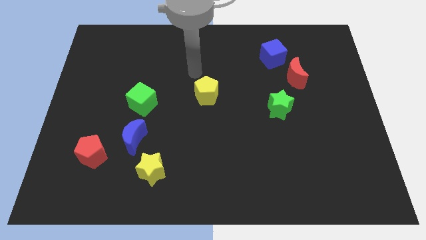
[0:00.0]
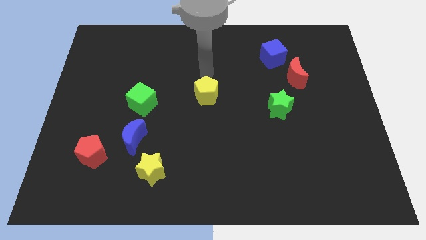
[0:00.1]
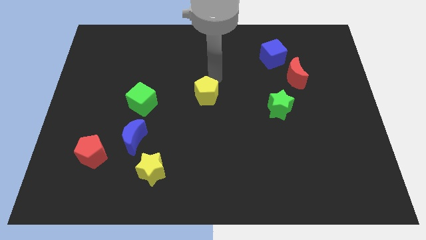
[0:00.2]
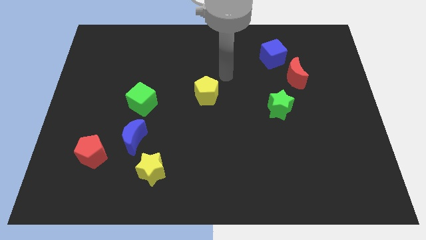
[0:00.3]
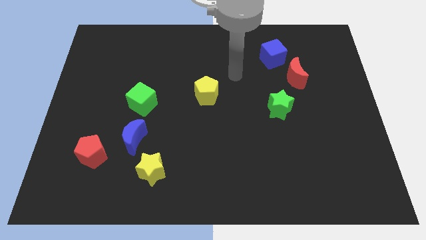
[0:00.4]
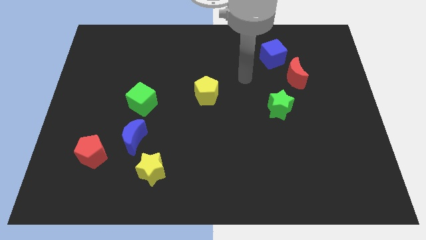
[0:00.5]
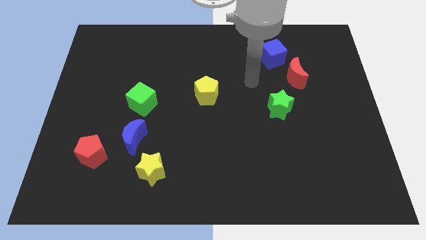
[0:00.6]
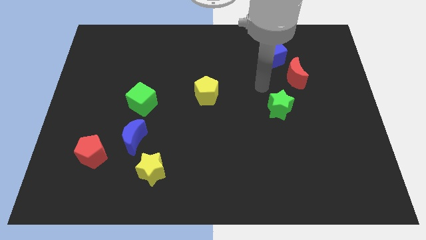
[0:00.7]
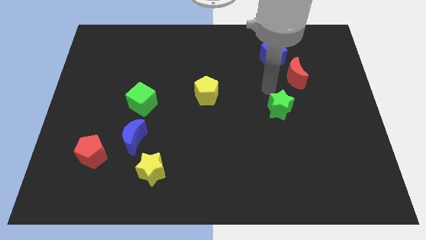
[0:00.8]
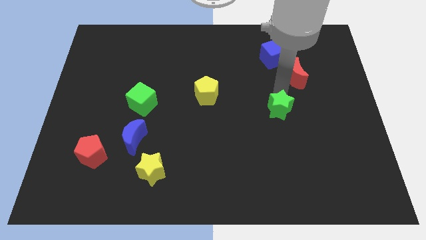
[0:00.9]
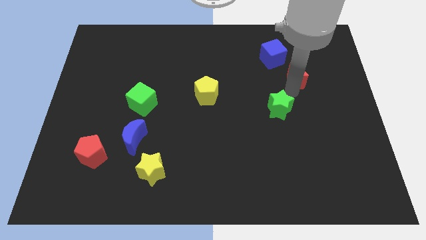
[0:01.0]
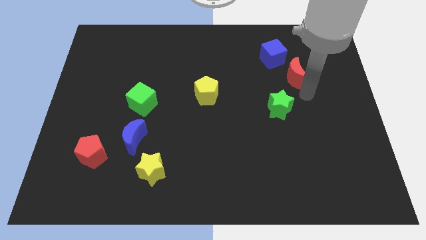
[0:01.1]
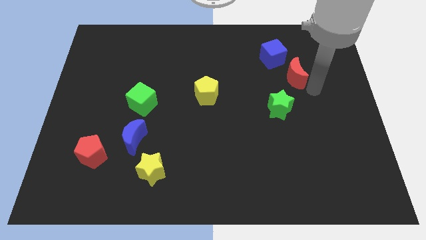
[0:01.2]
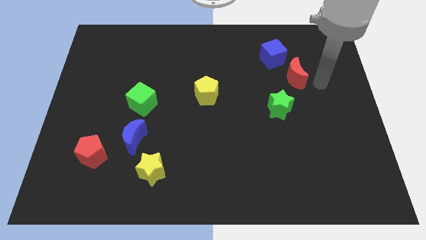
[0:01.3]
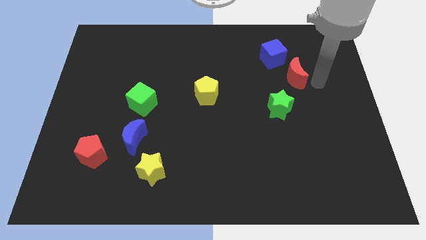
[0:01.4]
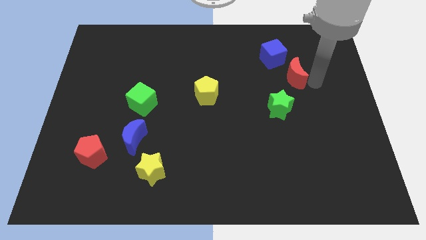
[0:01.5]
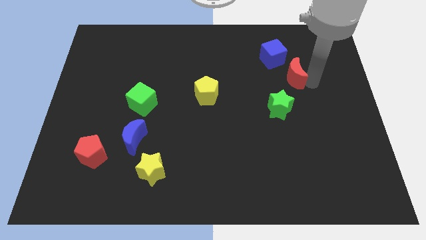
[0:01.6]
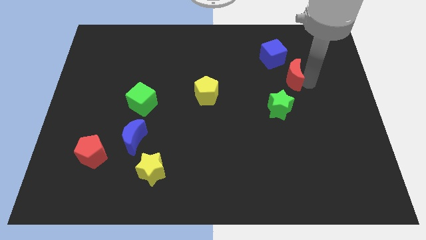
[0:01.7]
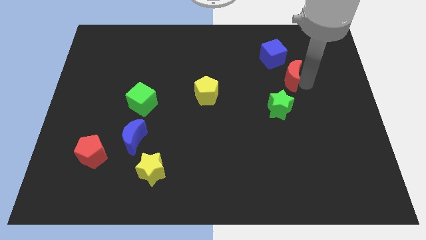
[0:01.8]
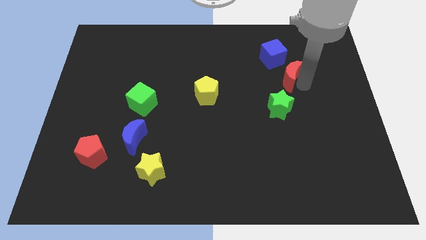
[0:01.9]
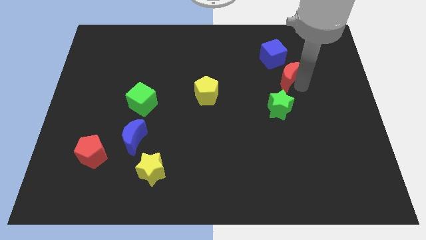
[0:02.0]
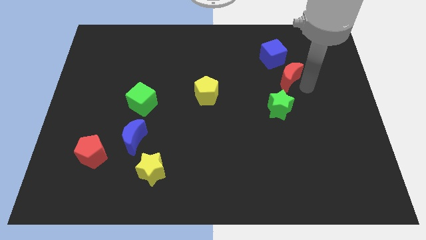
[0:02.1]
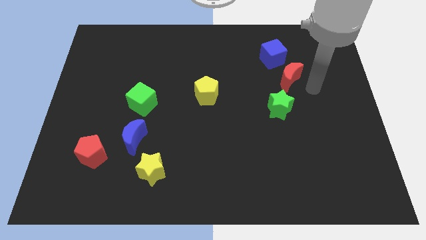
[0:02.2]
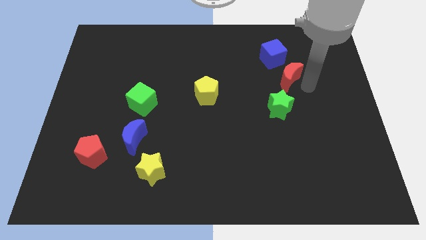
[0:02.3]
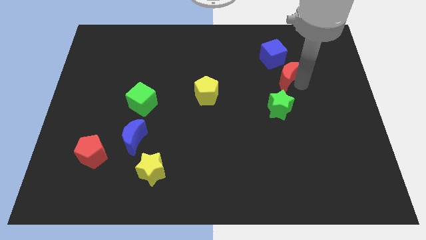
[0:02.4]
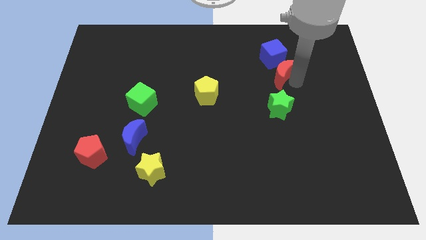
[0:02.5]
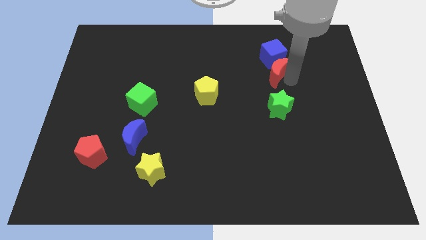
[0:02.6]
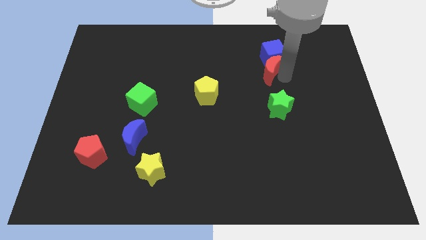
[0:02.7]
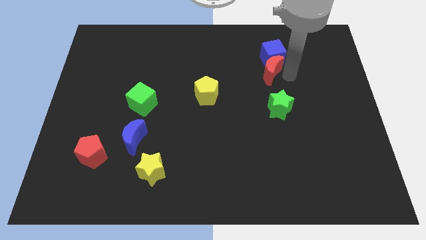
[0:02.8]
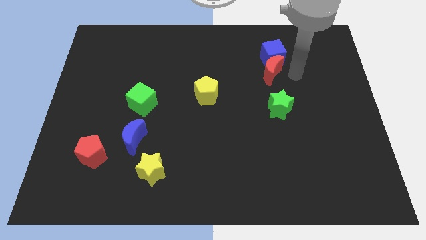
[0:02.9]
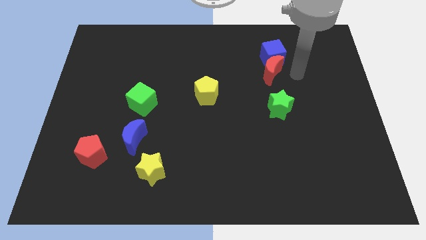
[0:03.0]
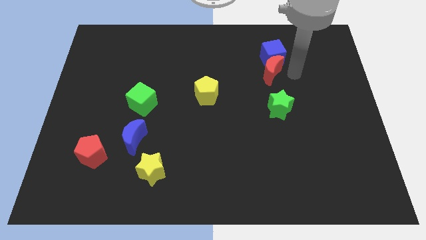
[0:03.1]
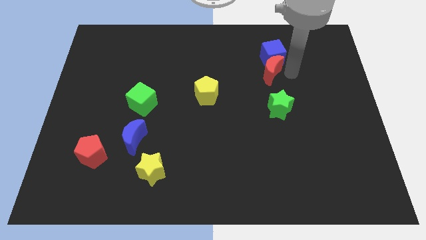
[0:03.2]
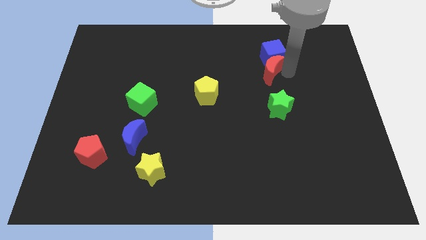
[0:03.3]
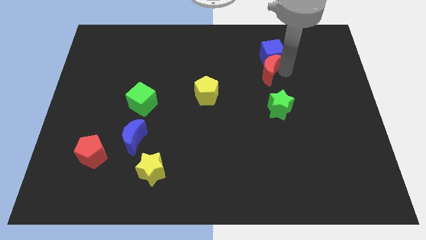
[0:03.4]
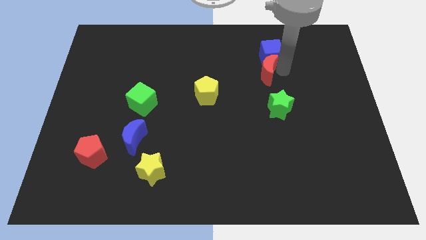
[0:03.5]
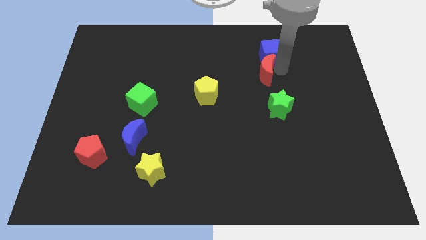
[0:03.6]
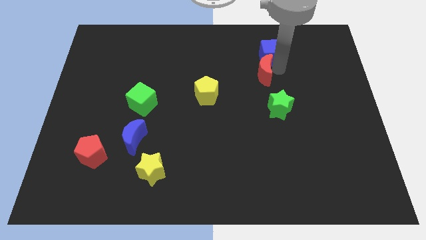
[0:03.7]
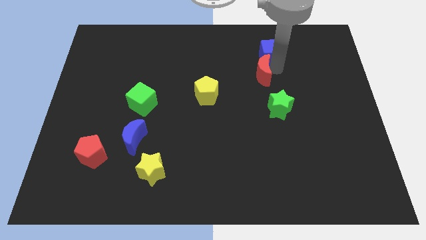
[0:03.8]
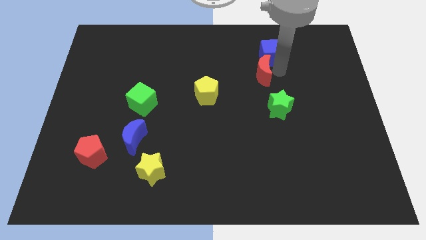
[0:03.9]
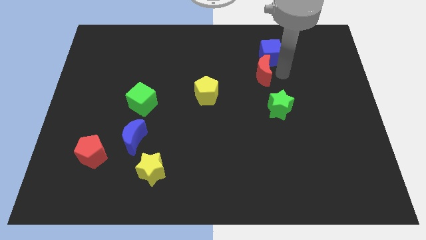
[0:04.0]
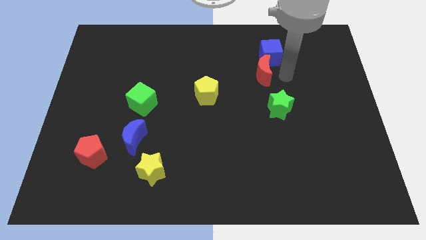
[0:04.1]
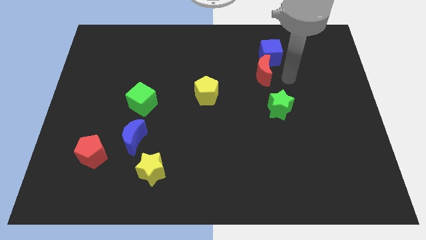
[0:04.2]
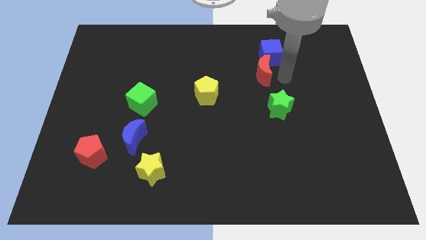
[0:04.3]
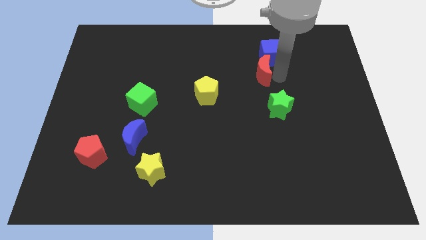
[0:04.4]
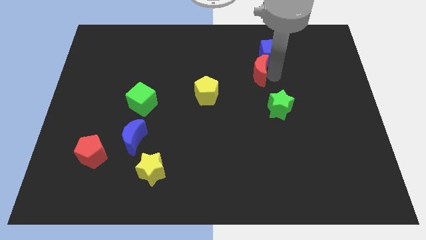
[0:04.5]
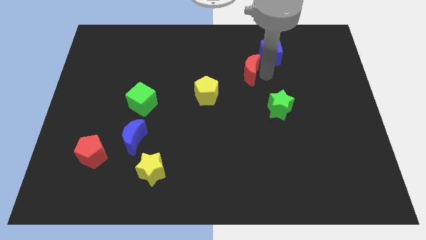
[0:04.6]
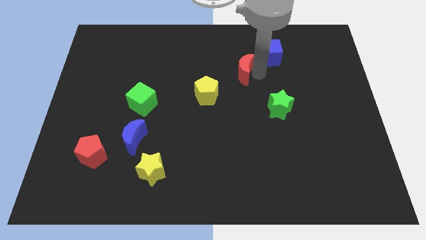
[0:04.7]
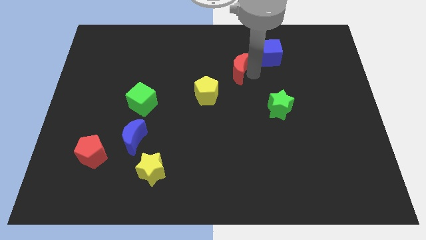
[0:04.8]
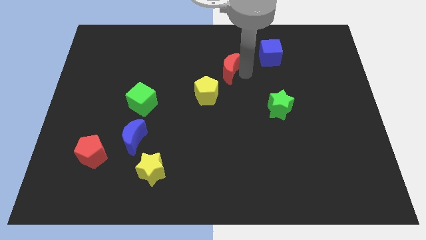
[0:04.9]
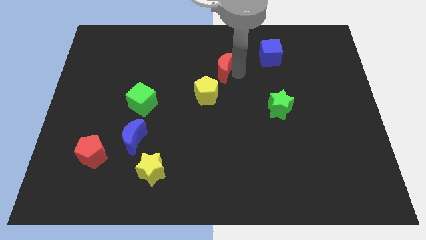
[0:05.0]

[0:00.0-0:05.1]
push the red moon to the top of the yellow pentagon

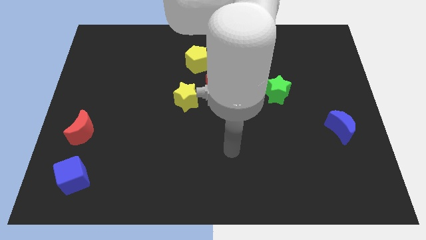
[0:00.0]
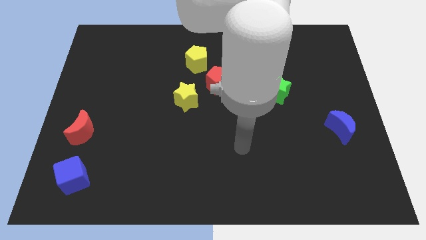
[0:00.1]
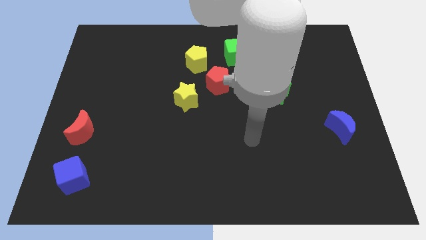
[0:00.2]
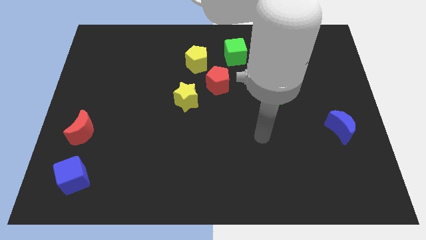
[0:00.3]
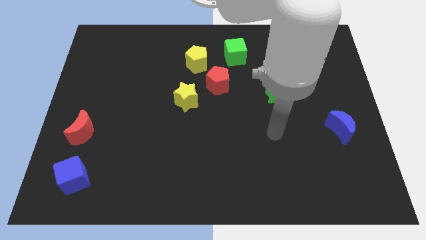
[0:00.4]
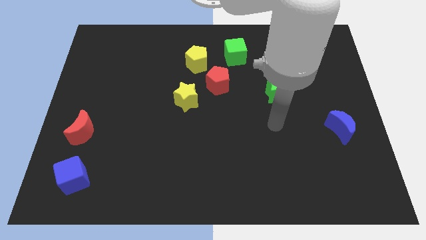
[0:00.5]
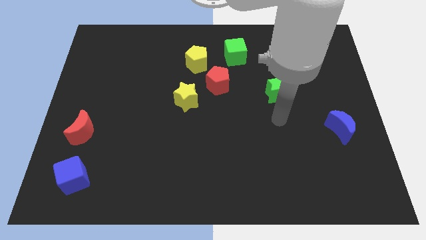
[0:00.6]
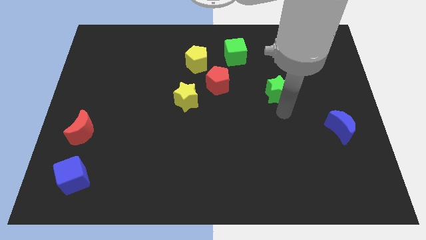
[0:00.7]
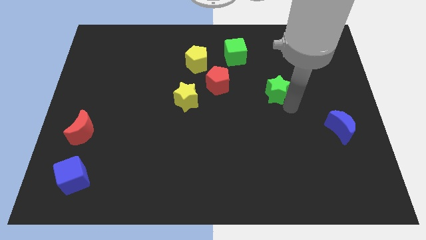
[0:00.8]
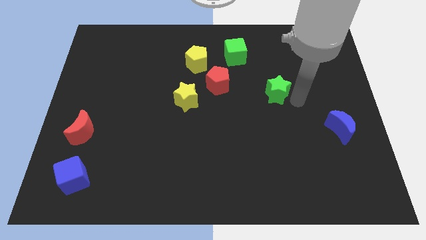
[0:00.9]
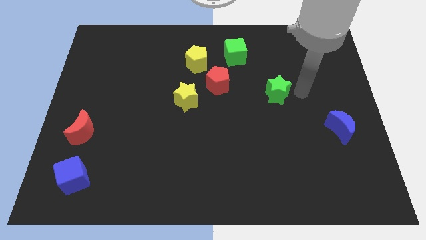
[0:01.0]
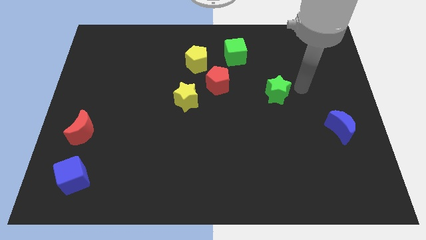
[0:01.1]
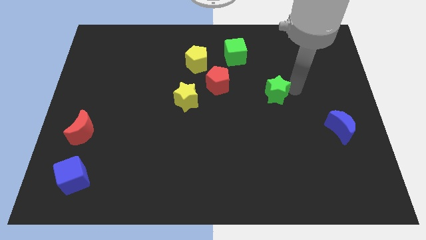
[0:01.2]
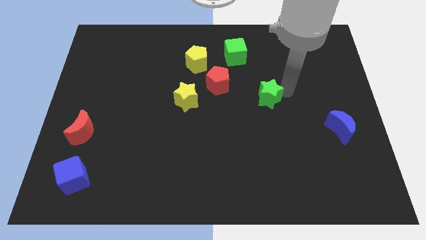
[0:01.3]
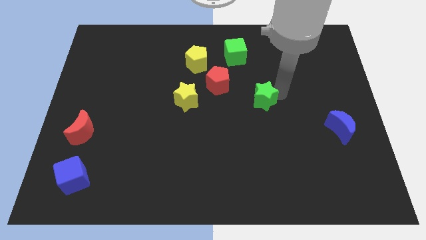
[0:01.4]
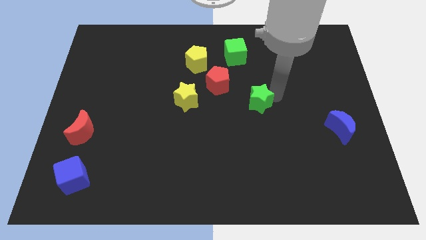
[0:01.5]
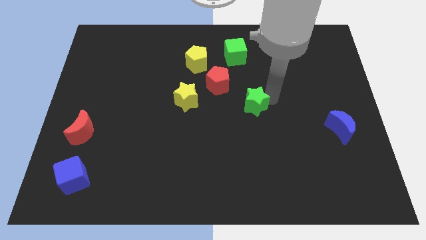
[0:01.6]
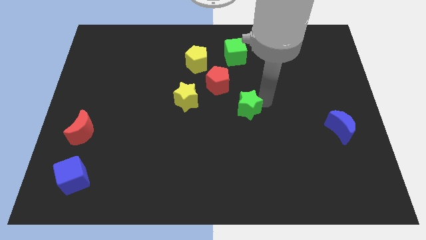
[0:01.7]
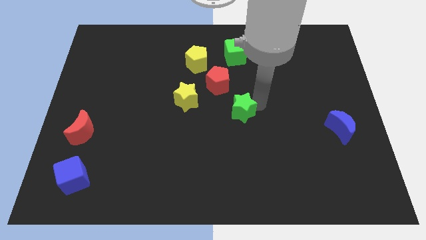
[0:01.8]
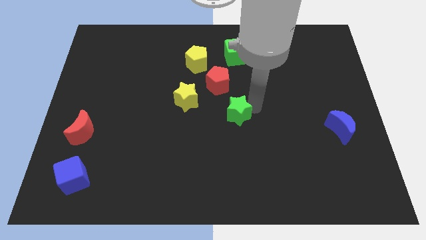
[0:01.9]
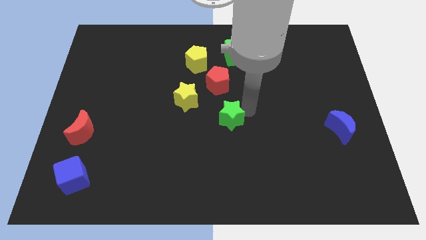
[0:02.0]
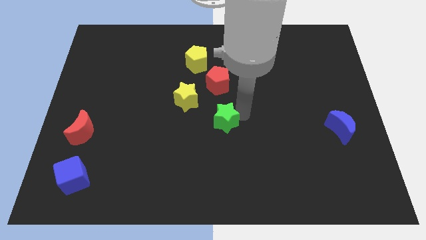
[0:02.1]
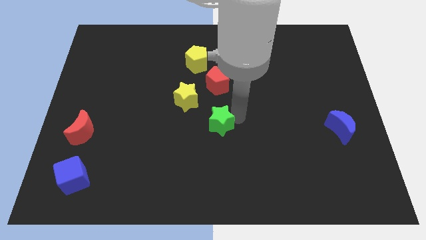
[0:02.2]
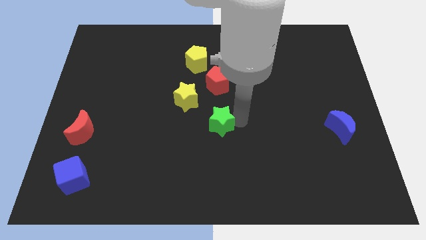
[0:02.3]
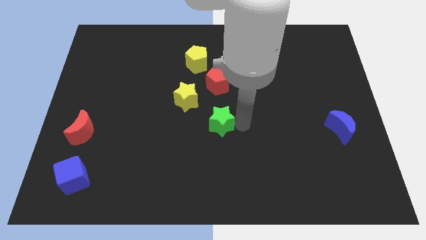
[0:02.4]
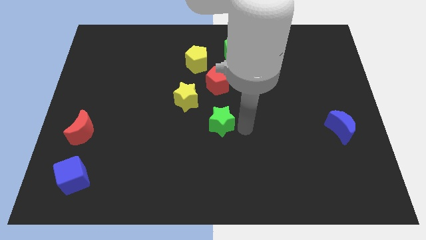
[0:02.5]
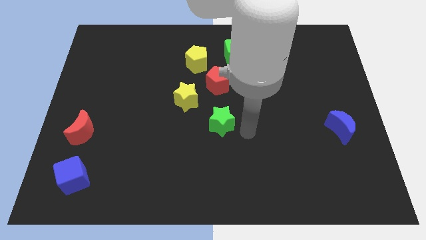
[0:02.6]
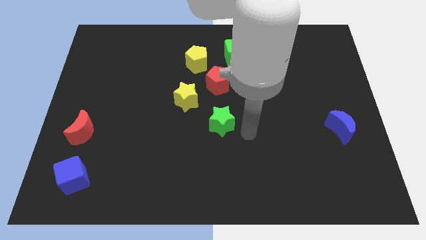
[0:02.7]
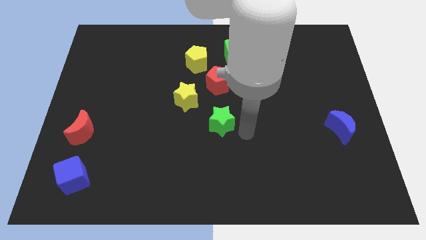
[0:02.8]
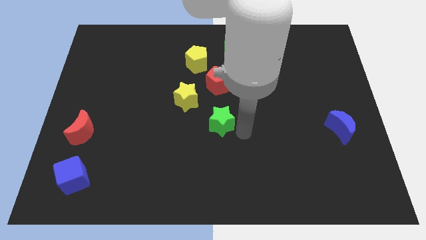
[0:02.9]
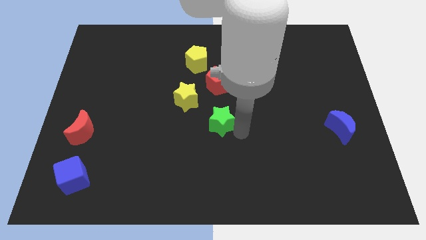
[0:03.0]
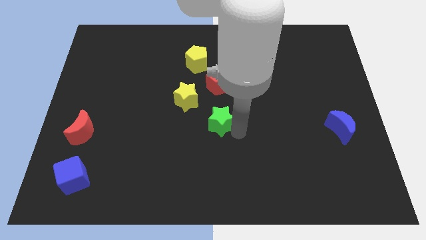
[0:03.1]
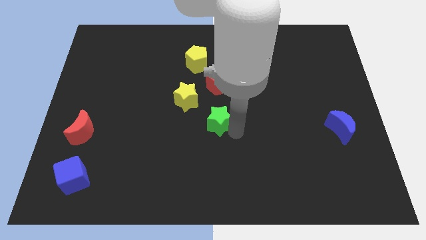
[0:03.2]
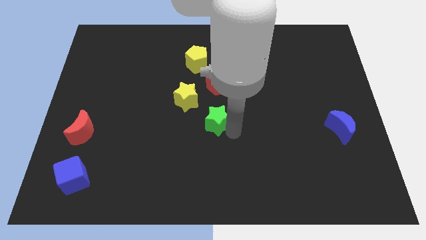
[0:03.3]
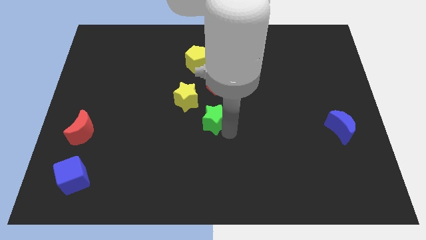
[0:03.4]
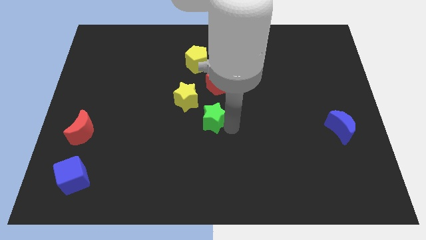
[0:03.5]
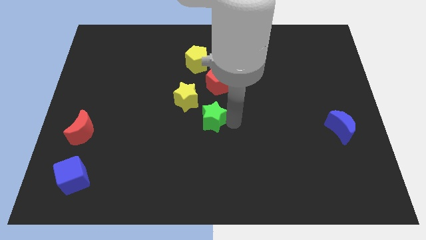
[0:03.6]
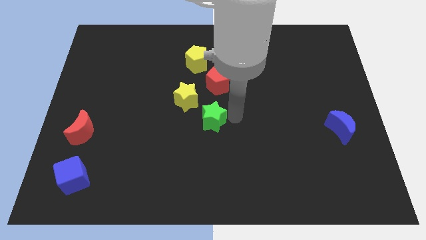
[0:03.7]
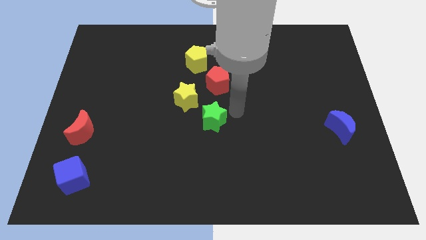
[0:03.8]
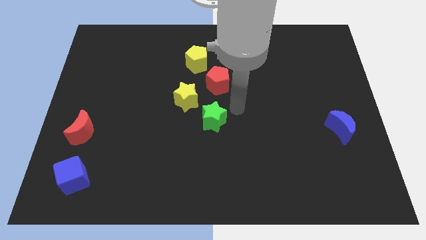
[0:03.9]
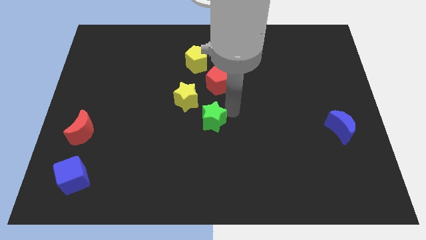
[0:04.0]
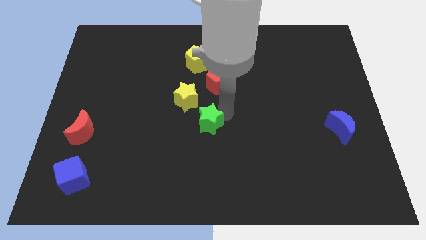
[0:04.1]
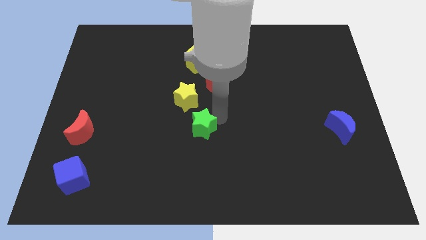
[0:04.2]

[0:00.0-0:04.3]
slide the green star below the yellow star
